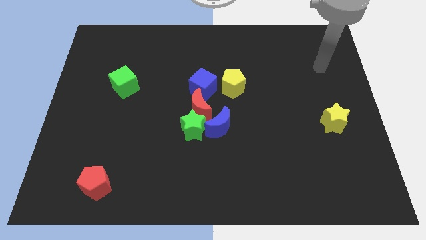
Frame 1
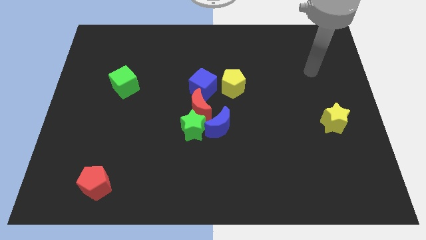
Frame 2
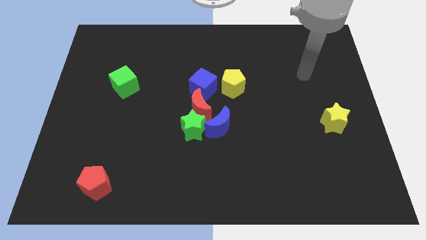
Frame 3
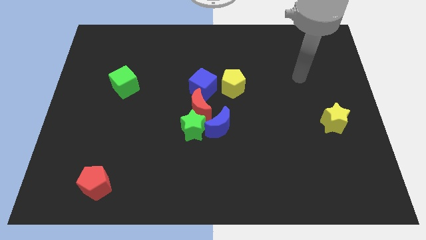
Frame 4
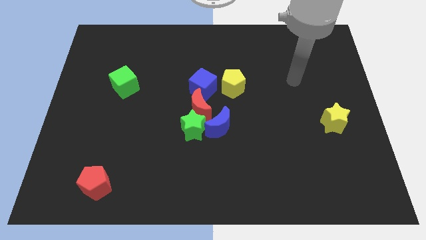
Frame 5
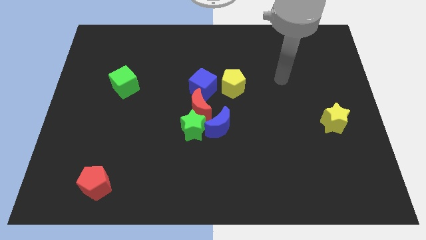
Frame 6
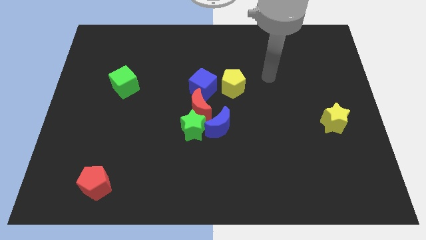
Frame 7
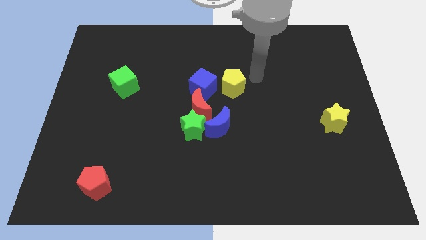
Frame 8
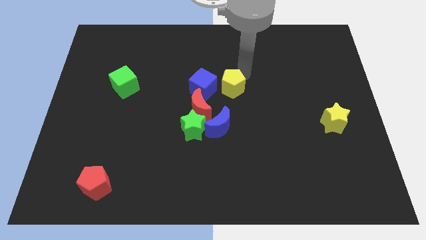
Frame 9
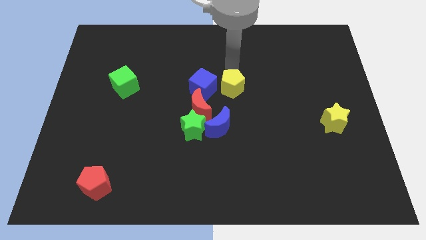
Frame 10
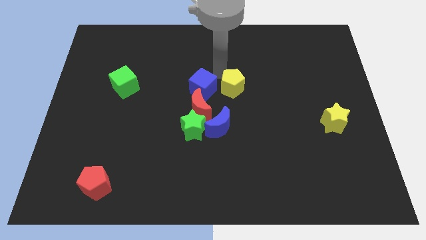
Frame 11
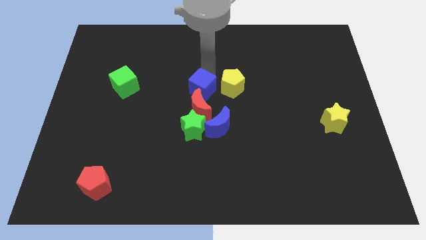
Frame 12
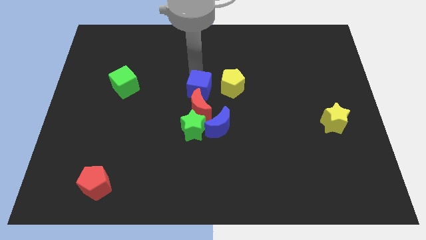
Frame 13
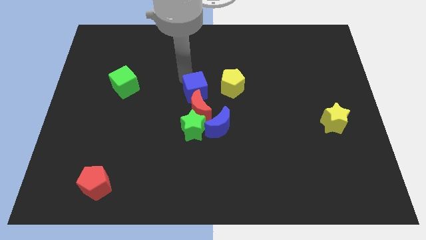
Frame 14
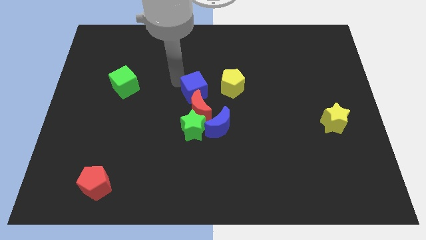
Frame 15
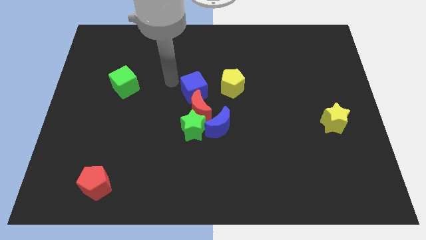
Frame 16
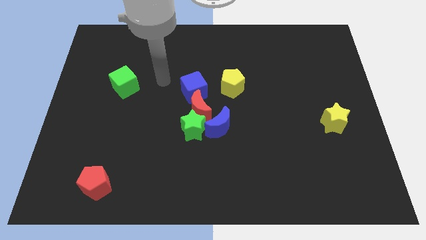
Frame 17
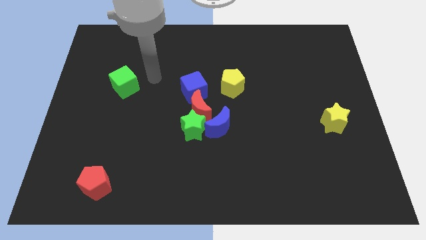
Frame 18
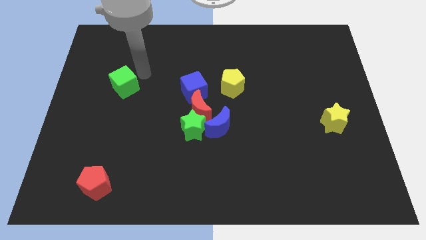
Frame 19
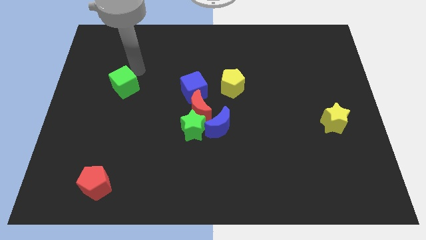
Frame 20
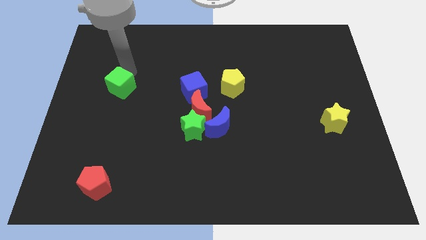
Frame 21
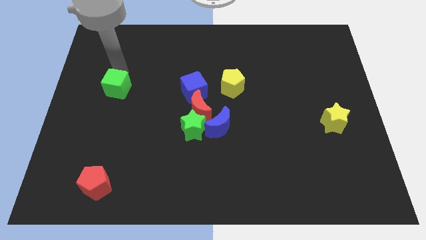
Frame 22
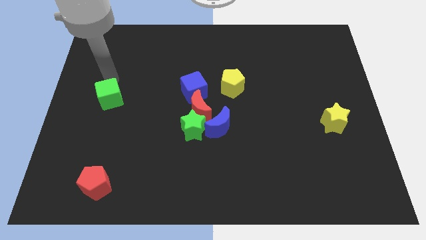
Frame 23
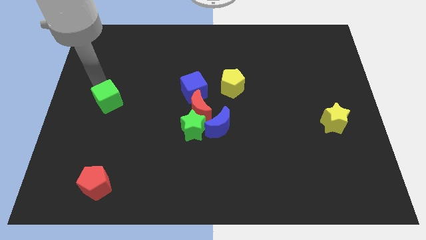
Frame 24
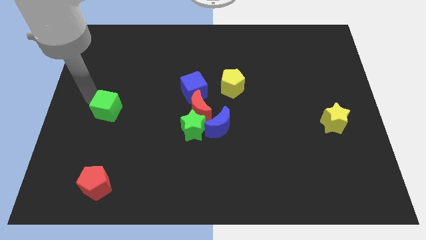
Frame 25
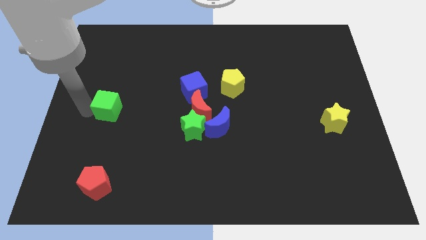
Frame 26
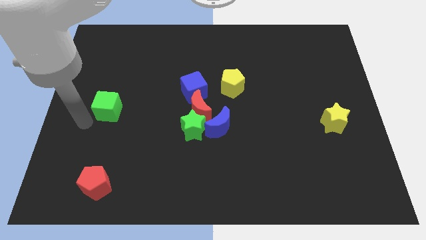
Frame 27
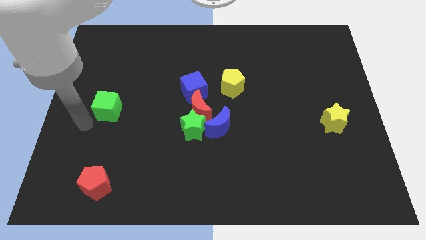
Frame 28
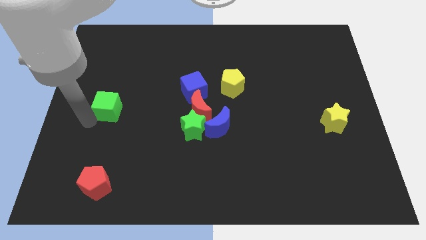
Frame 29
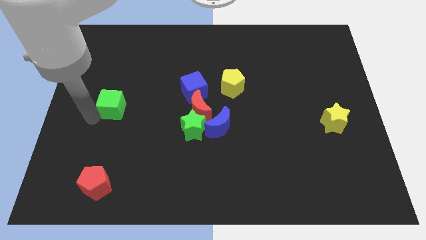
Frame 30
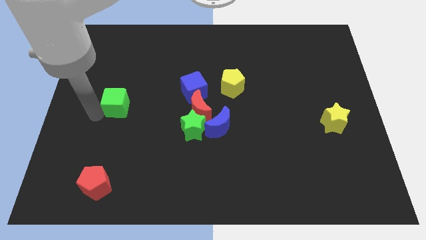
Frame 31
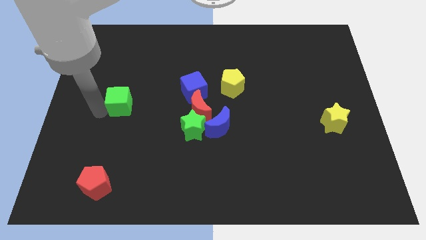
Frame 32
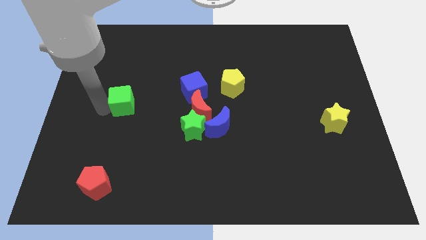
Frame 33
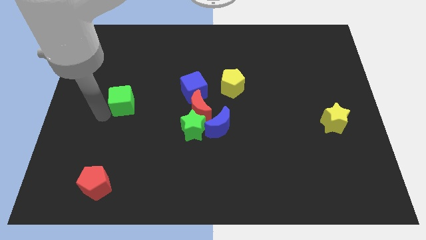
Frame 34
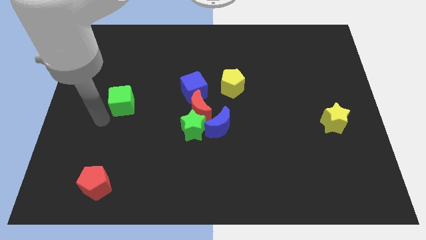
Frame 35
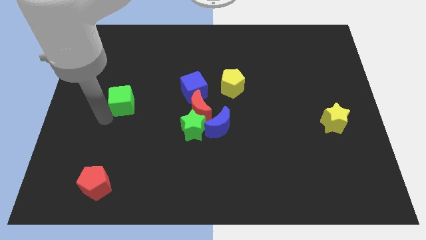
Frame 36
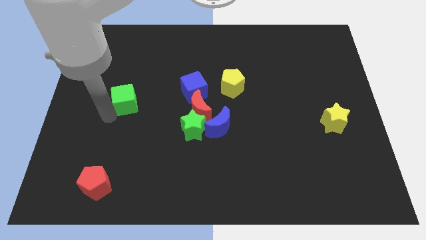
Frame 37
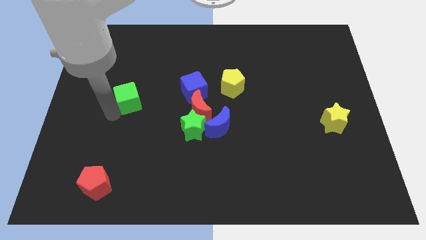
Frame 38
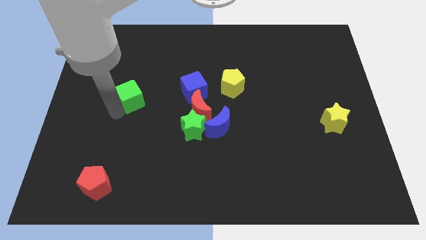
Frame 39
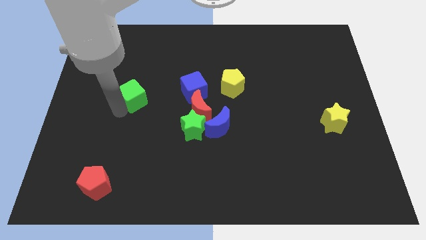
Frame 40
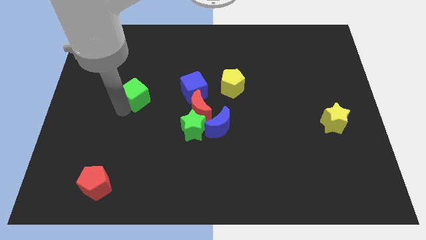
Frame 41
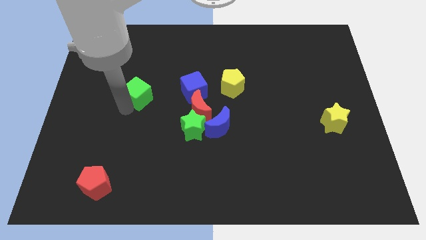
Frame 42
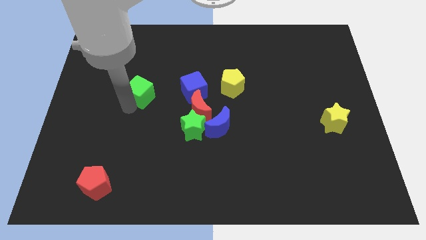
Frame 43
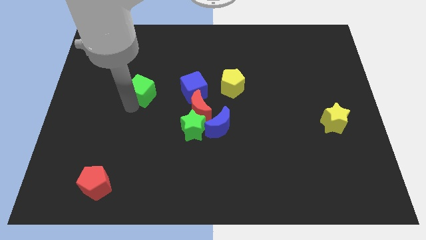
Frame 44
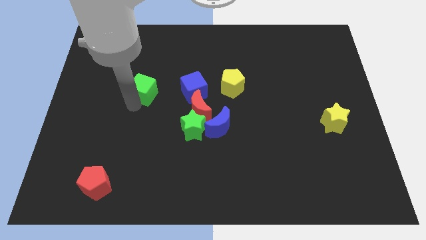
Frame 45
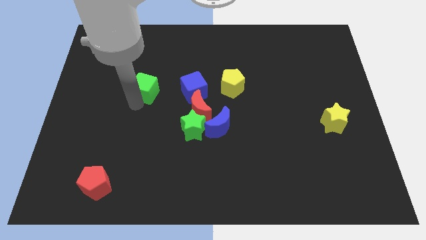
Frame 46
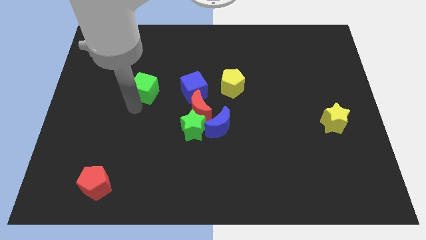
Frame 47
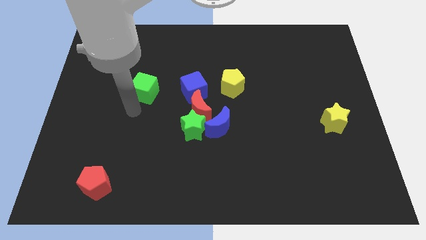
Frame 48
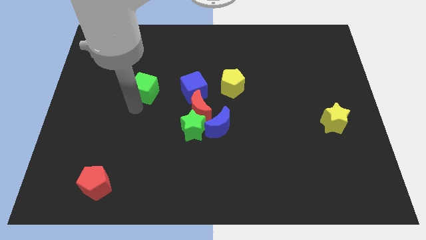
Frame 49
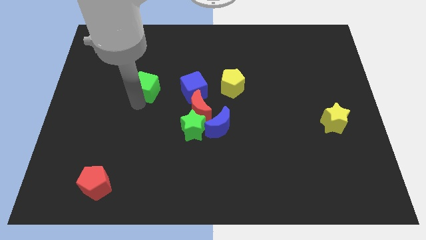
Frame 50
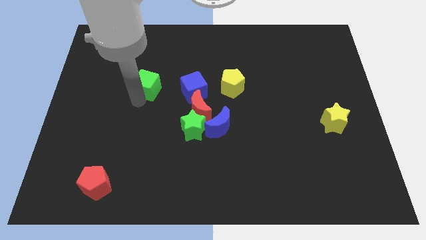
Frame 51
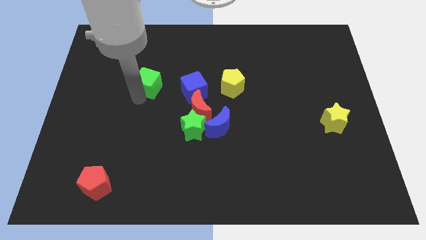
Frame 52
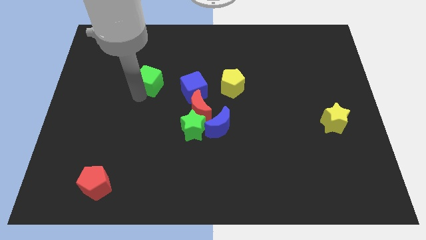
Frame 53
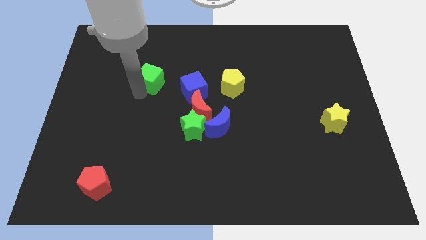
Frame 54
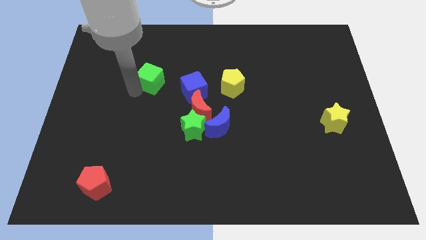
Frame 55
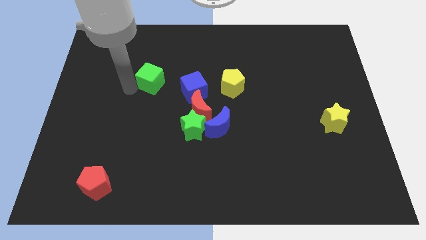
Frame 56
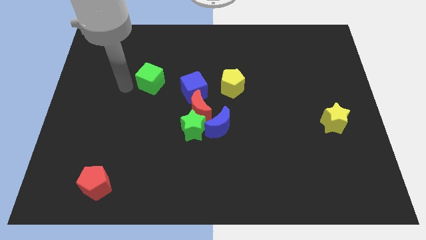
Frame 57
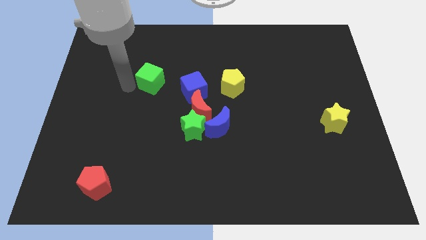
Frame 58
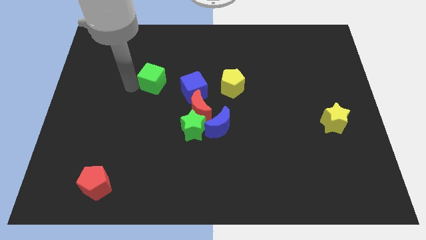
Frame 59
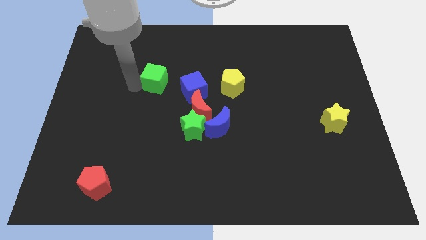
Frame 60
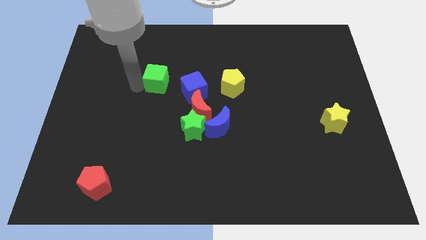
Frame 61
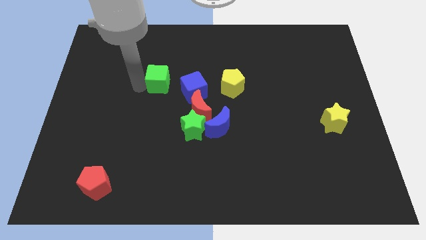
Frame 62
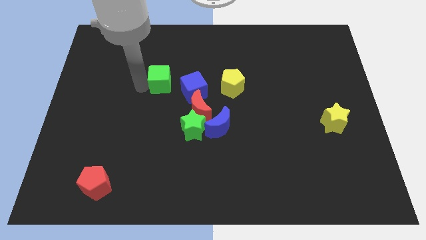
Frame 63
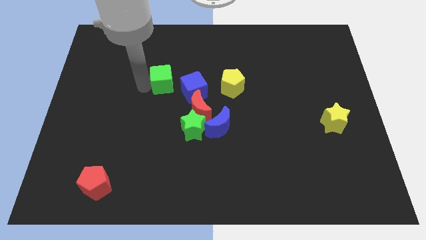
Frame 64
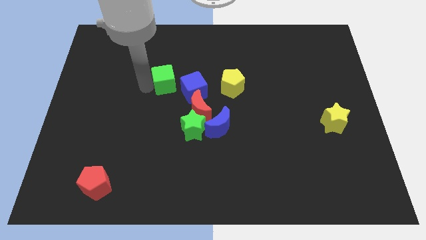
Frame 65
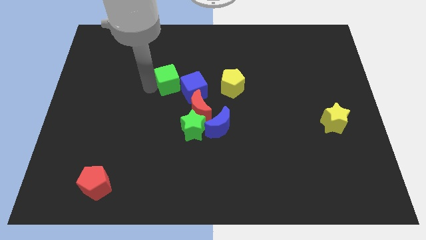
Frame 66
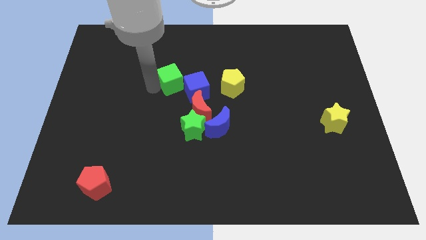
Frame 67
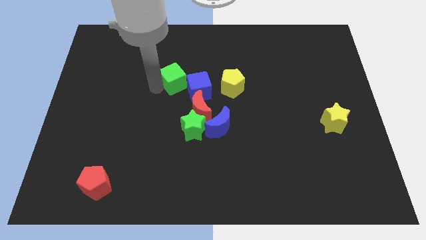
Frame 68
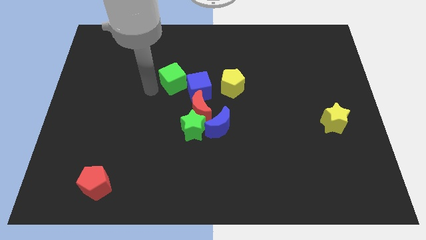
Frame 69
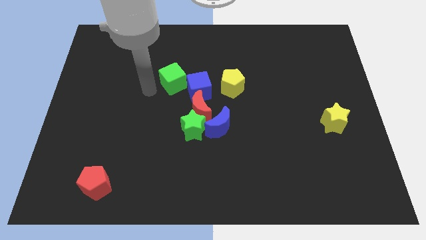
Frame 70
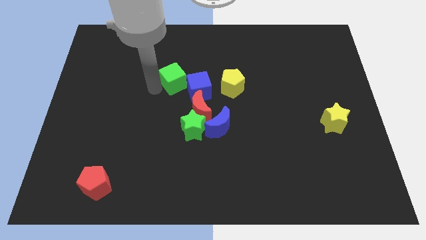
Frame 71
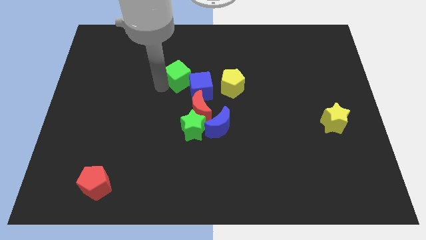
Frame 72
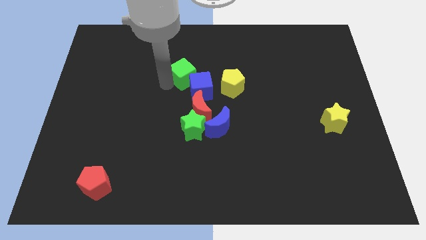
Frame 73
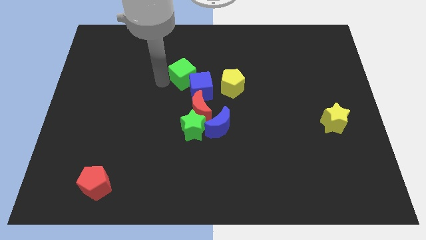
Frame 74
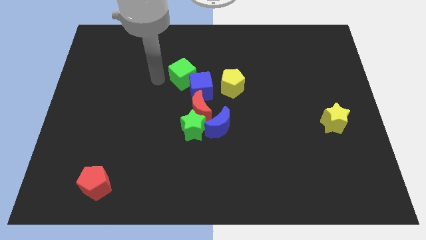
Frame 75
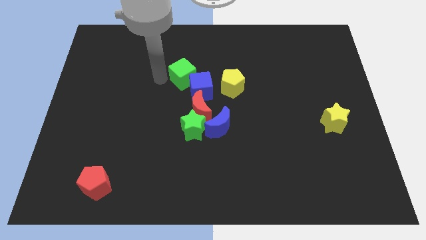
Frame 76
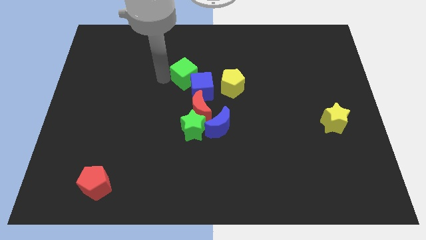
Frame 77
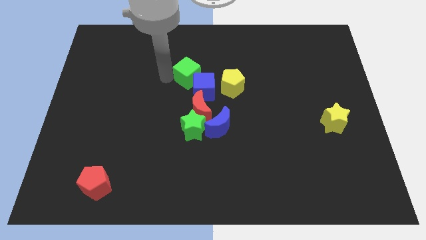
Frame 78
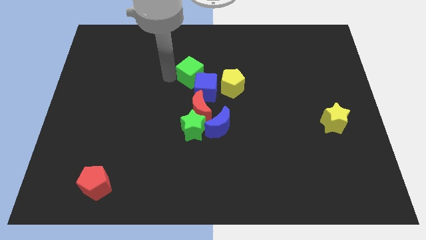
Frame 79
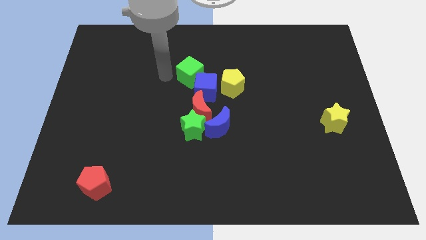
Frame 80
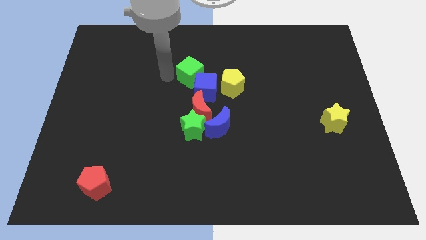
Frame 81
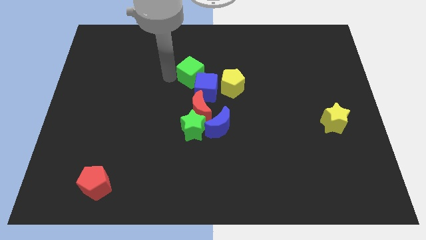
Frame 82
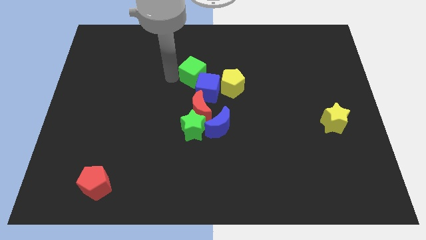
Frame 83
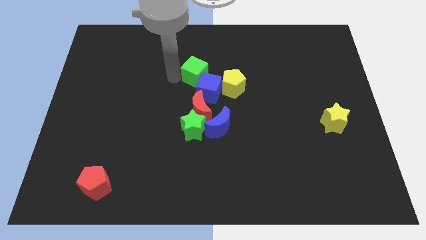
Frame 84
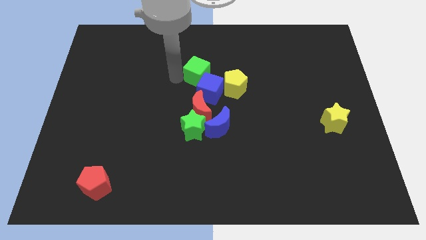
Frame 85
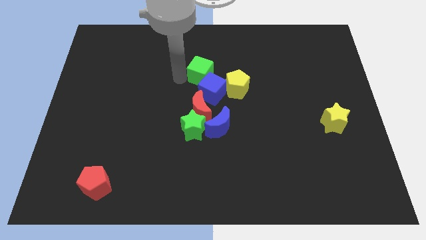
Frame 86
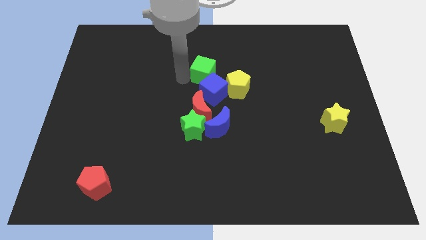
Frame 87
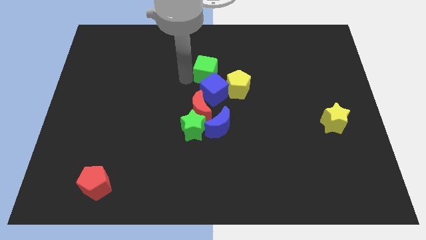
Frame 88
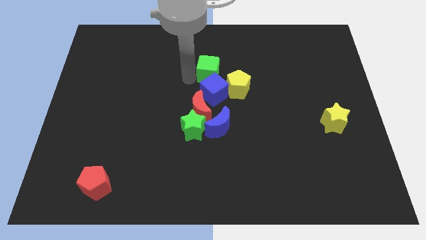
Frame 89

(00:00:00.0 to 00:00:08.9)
move the green cube right
